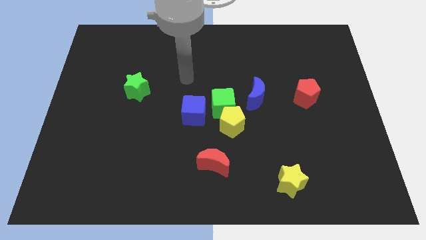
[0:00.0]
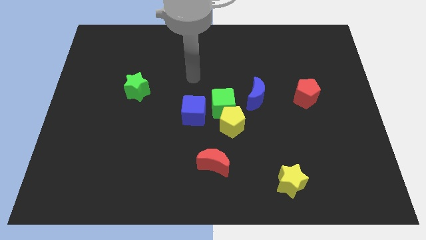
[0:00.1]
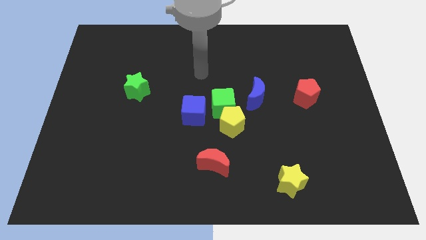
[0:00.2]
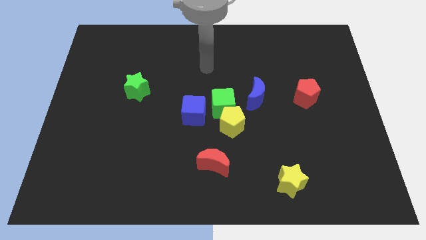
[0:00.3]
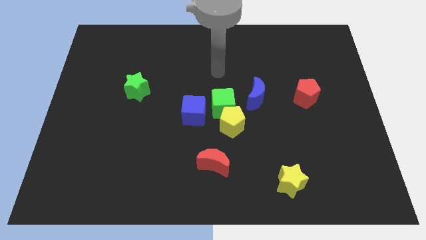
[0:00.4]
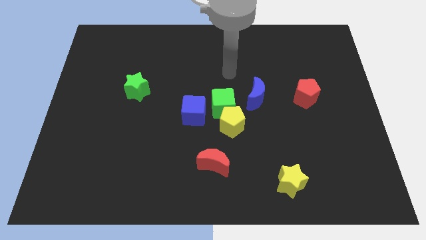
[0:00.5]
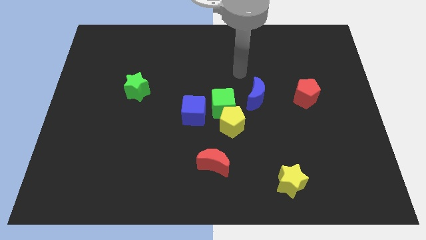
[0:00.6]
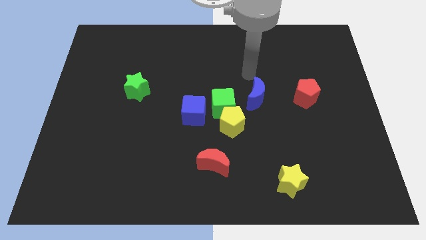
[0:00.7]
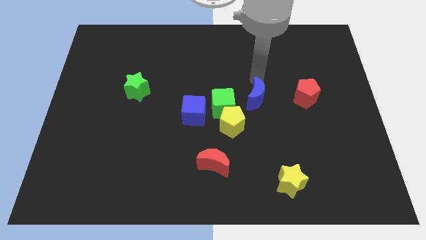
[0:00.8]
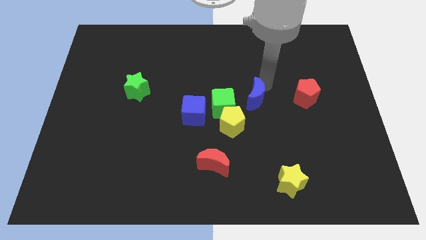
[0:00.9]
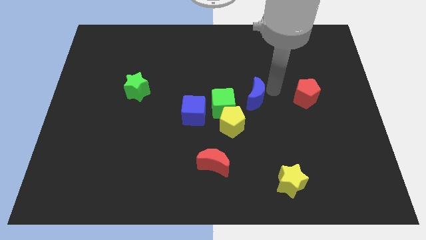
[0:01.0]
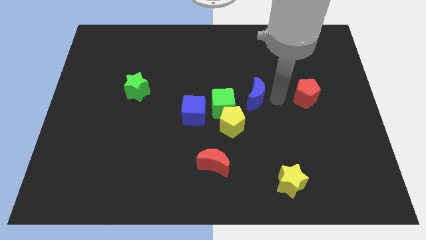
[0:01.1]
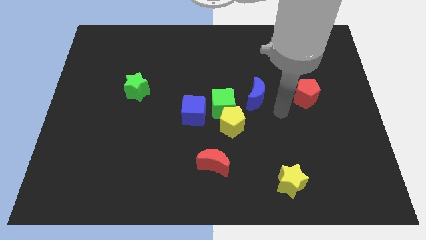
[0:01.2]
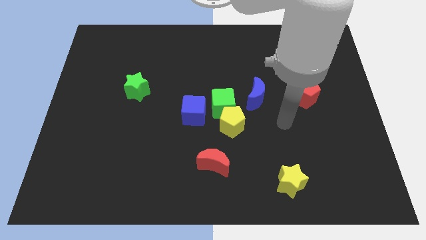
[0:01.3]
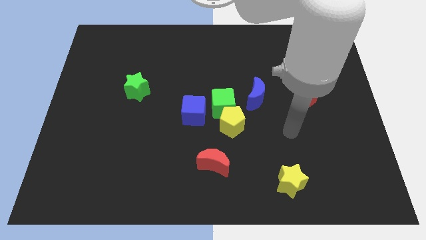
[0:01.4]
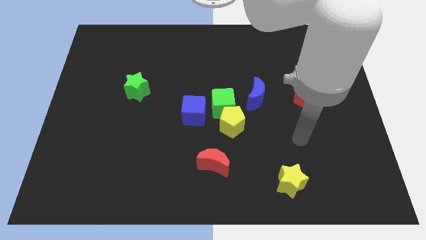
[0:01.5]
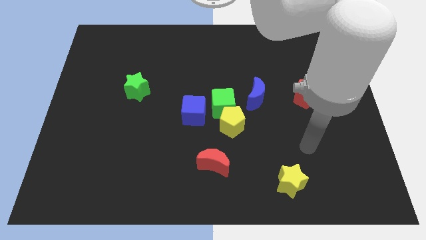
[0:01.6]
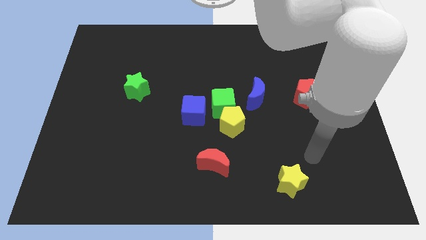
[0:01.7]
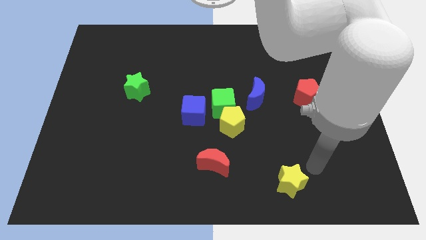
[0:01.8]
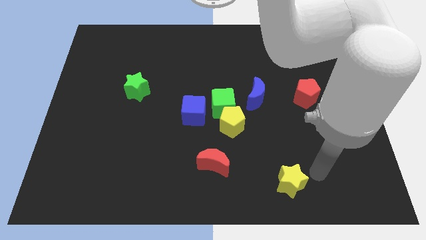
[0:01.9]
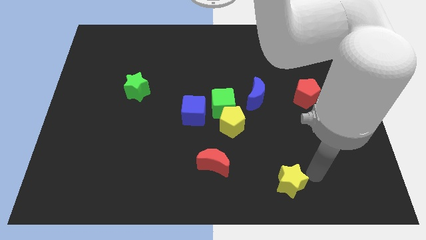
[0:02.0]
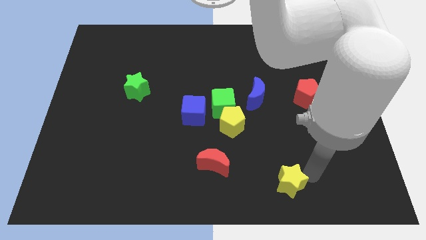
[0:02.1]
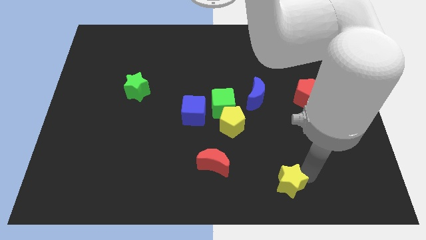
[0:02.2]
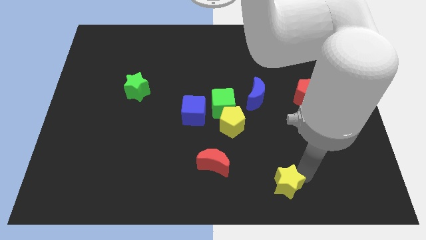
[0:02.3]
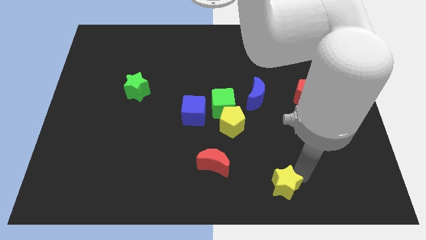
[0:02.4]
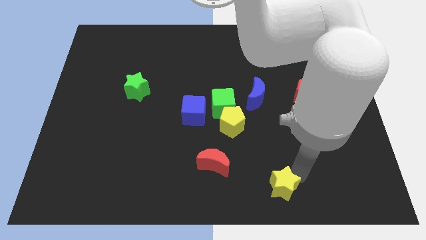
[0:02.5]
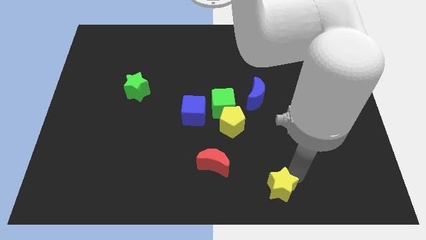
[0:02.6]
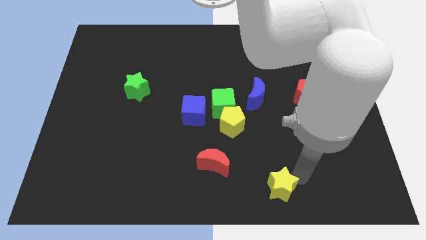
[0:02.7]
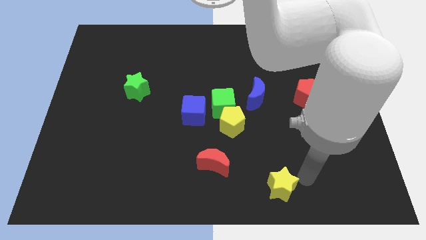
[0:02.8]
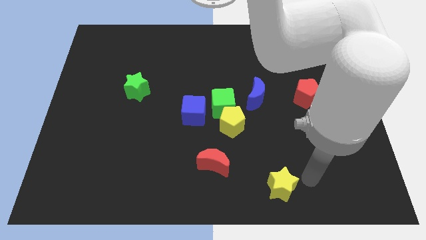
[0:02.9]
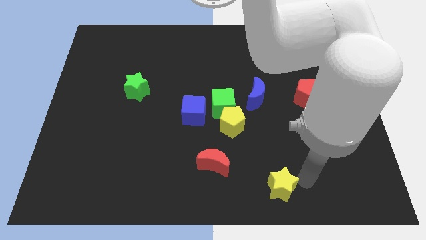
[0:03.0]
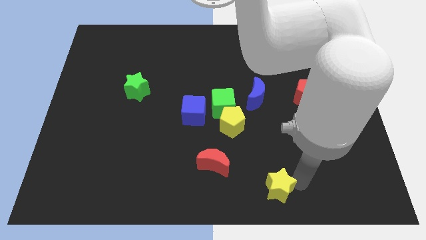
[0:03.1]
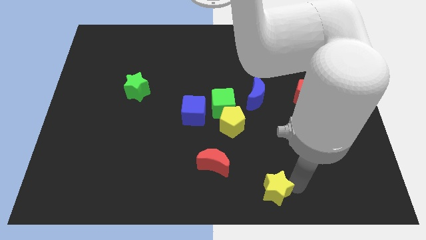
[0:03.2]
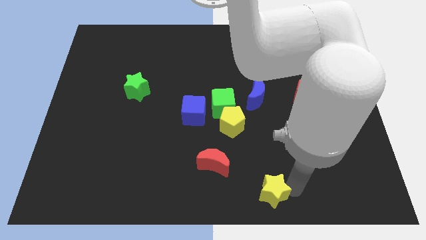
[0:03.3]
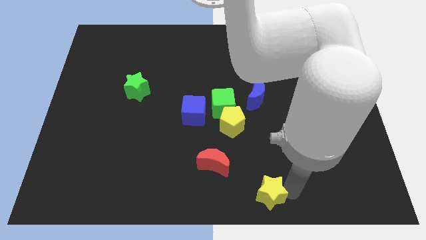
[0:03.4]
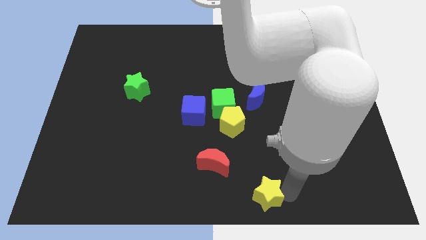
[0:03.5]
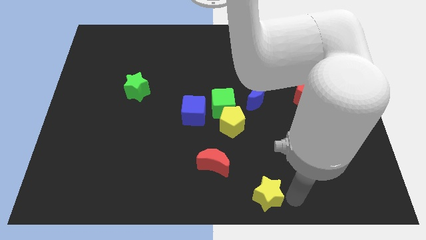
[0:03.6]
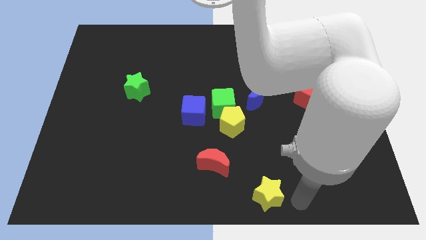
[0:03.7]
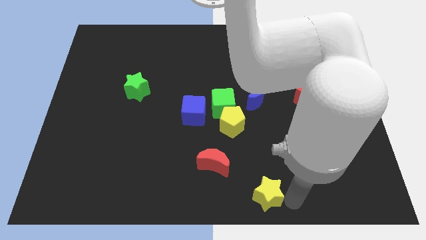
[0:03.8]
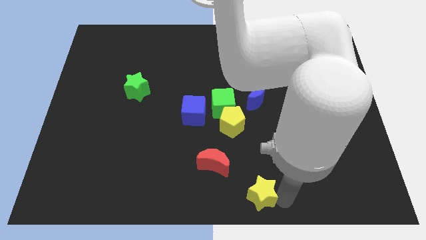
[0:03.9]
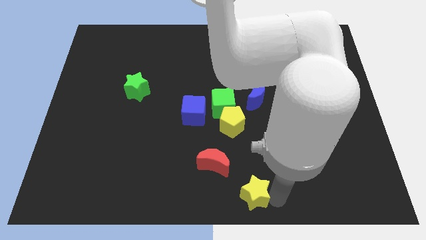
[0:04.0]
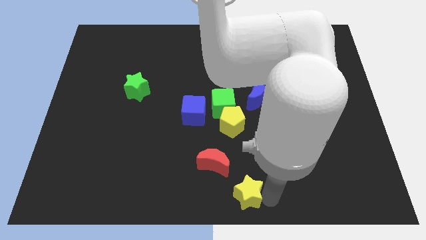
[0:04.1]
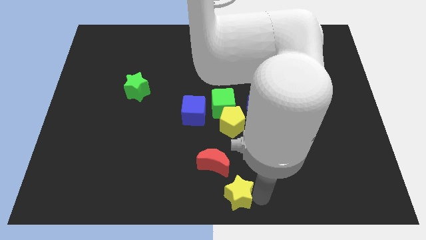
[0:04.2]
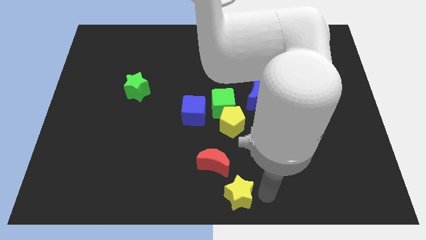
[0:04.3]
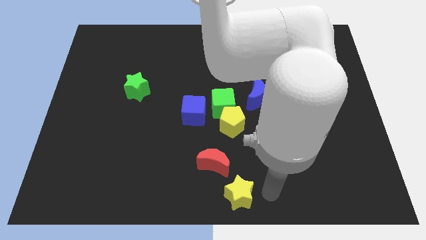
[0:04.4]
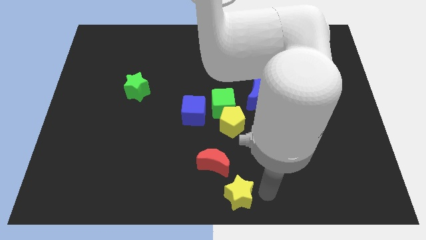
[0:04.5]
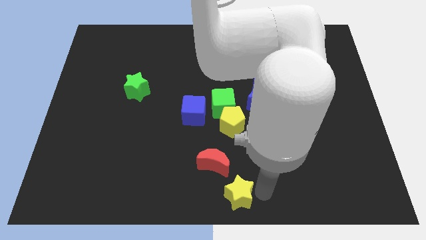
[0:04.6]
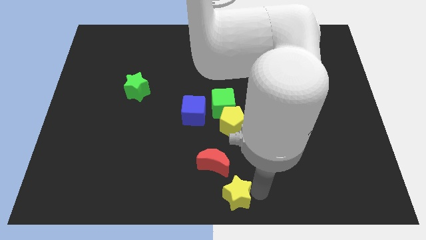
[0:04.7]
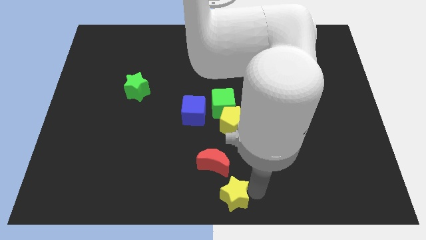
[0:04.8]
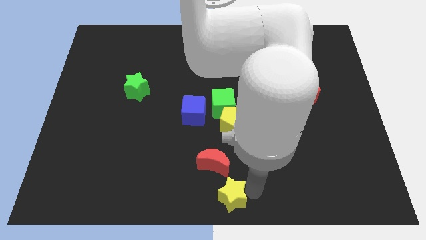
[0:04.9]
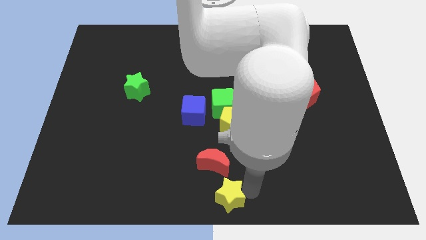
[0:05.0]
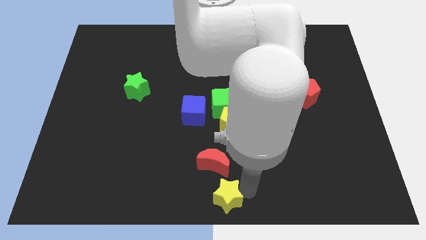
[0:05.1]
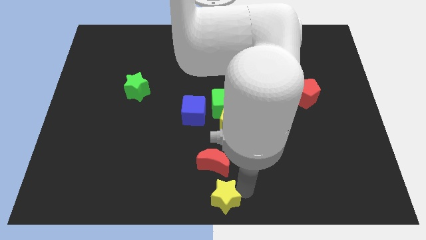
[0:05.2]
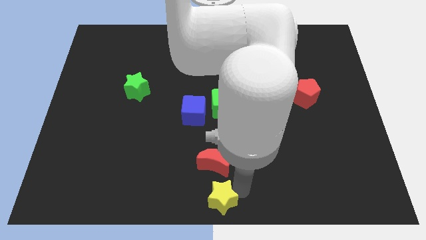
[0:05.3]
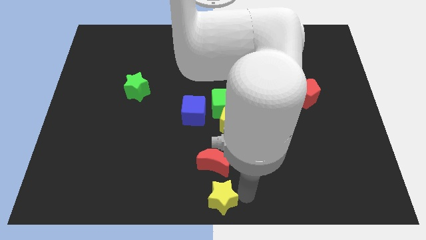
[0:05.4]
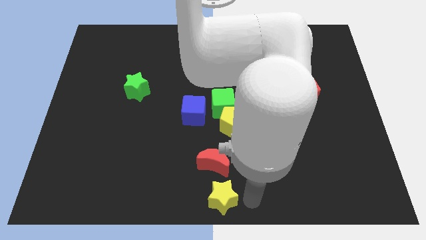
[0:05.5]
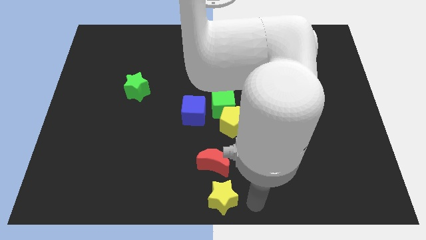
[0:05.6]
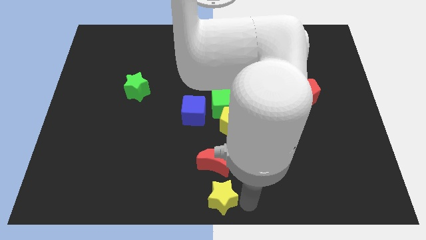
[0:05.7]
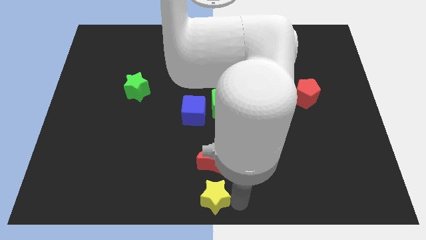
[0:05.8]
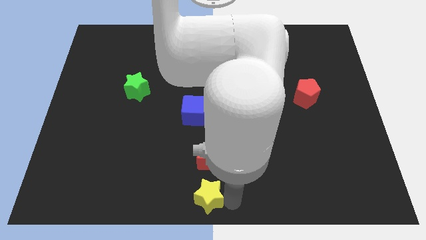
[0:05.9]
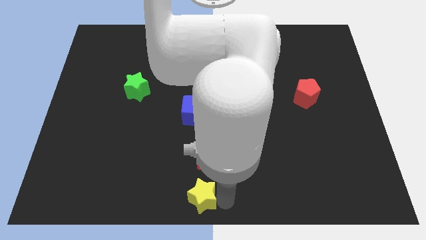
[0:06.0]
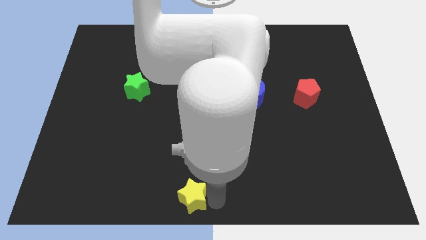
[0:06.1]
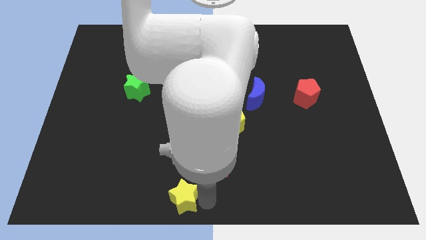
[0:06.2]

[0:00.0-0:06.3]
move the yellow star left

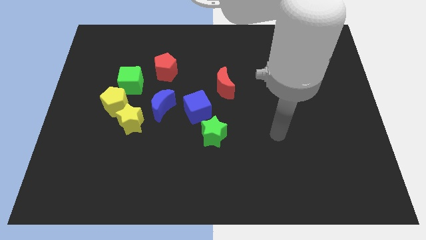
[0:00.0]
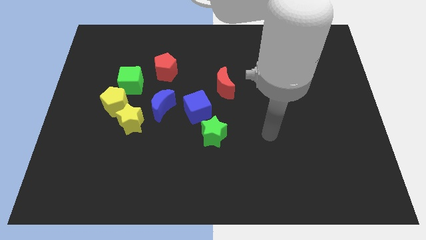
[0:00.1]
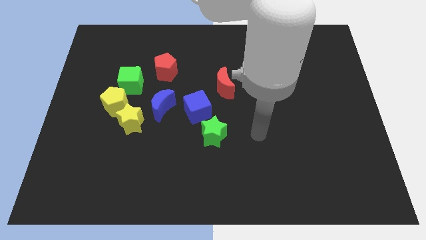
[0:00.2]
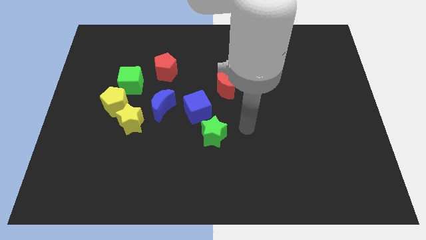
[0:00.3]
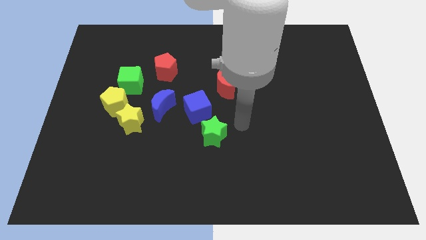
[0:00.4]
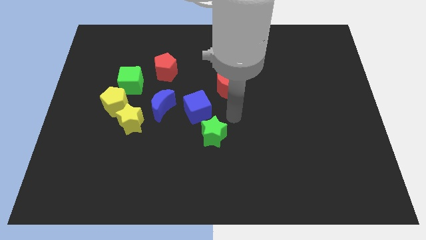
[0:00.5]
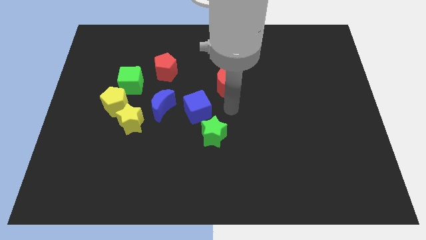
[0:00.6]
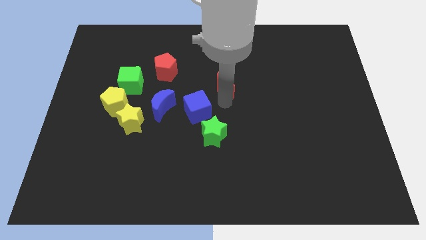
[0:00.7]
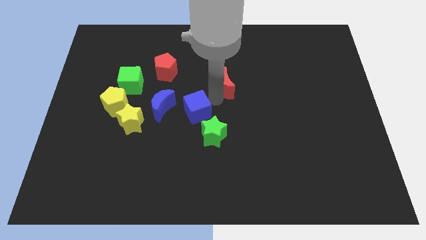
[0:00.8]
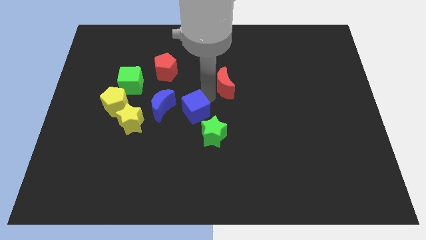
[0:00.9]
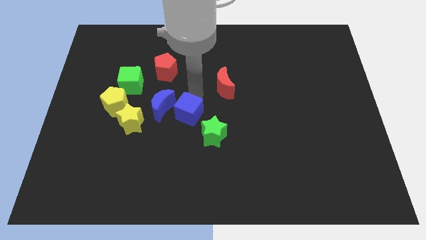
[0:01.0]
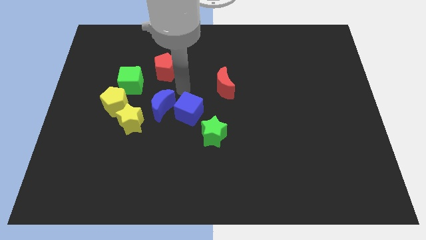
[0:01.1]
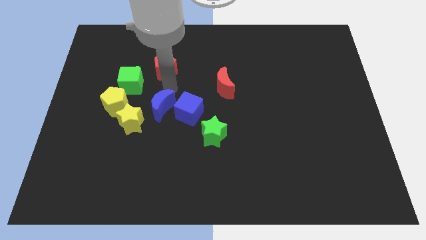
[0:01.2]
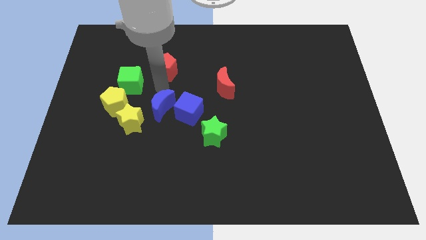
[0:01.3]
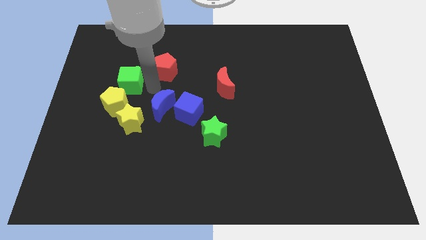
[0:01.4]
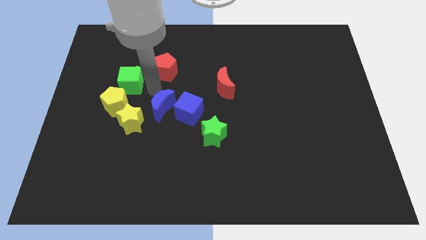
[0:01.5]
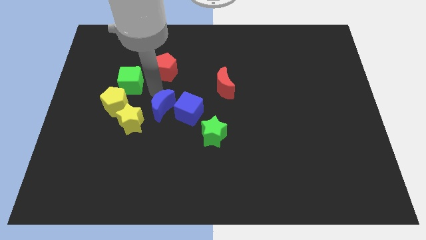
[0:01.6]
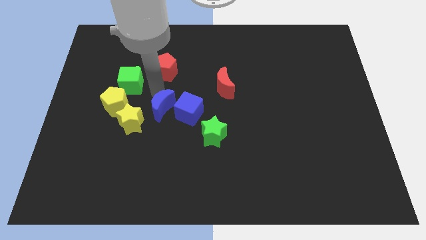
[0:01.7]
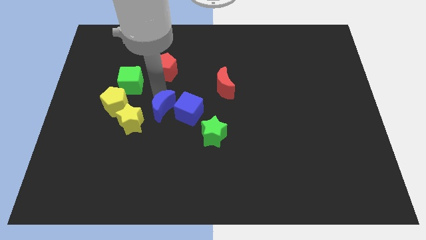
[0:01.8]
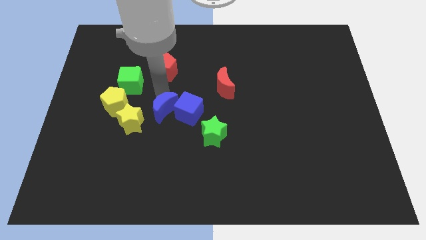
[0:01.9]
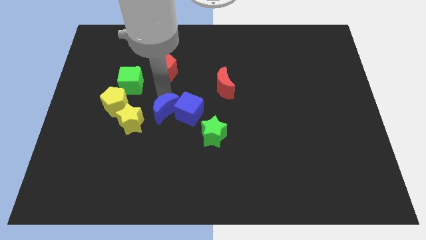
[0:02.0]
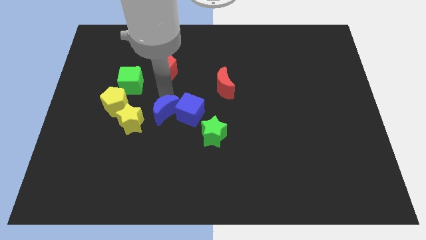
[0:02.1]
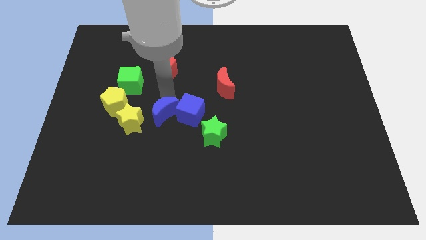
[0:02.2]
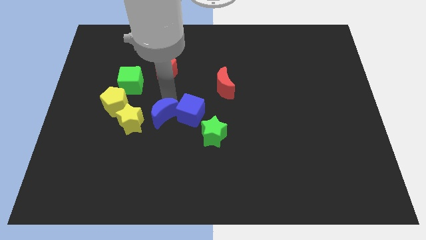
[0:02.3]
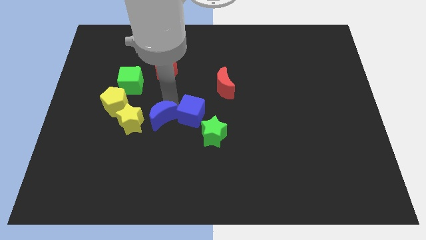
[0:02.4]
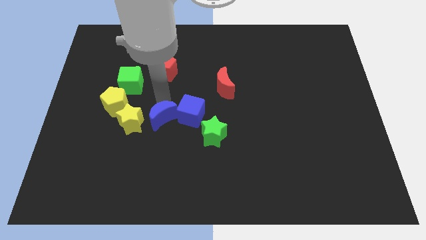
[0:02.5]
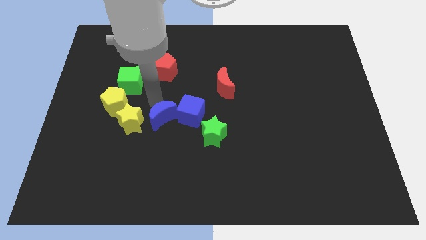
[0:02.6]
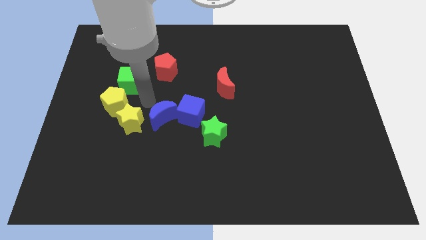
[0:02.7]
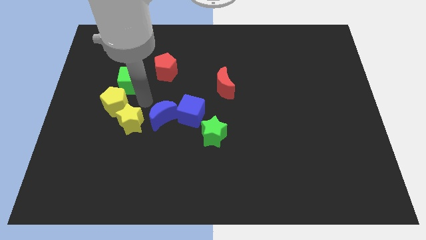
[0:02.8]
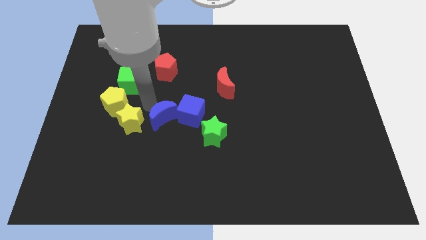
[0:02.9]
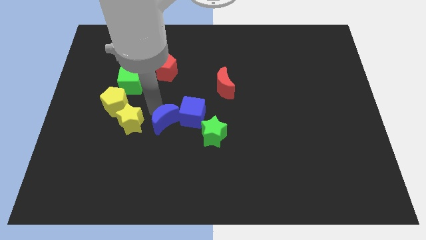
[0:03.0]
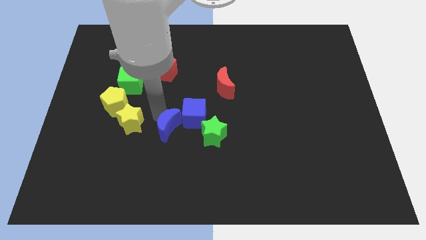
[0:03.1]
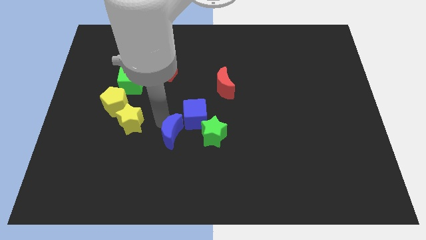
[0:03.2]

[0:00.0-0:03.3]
move the blue moon a little diagonally down and right
